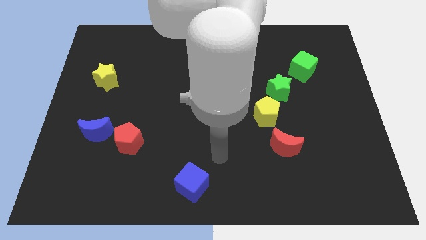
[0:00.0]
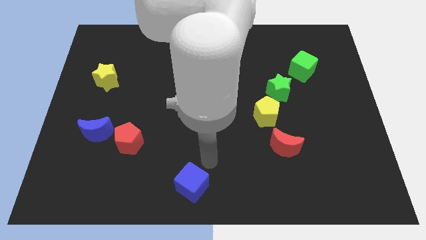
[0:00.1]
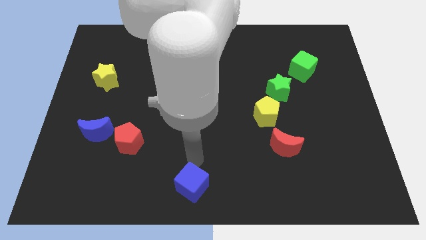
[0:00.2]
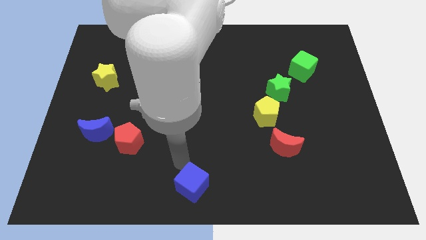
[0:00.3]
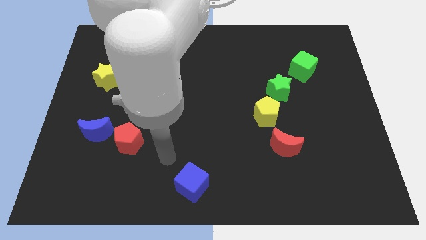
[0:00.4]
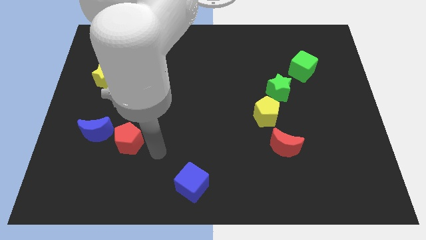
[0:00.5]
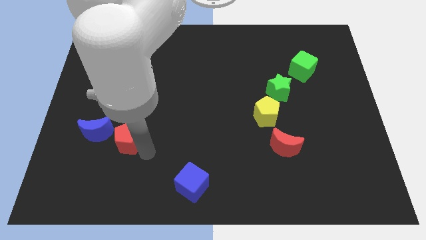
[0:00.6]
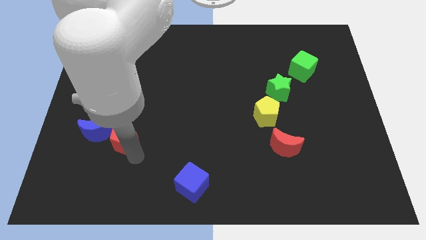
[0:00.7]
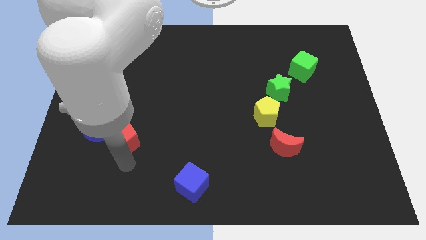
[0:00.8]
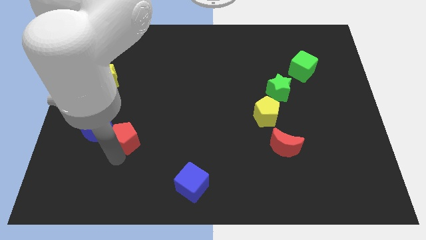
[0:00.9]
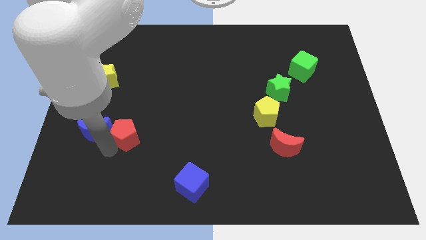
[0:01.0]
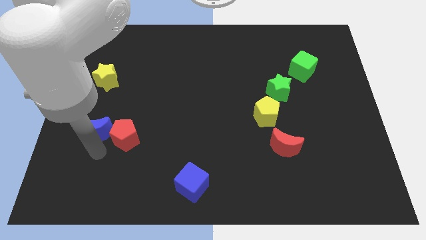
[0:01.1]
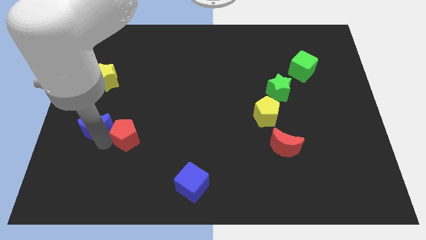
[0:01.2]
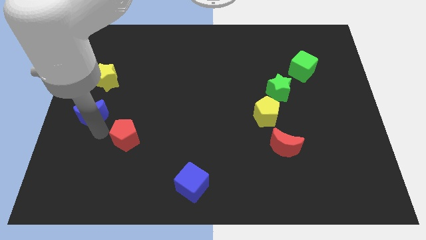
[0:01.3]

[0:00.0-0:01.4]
separate the red pentagon from the blue moon

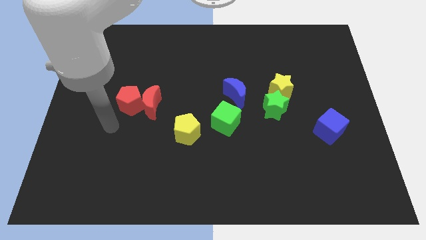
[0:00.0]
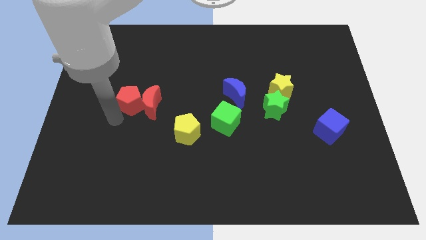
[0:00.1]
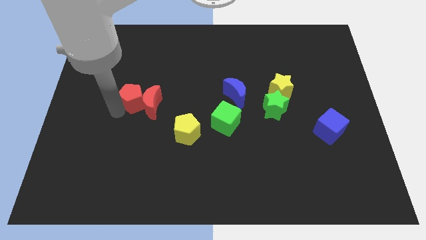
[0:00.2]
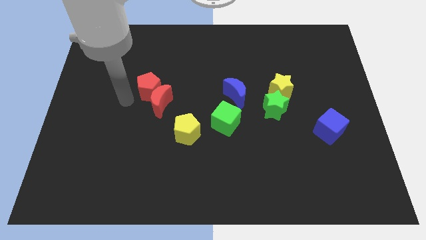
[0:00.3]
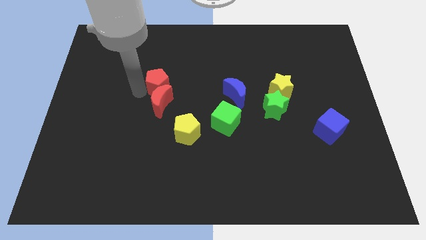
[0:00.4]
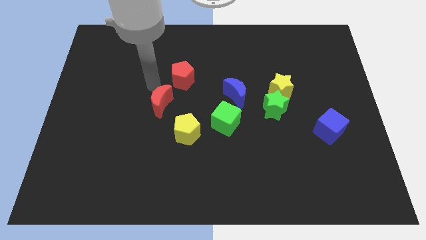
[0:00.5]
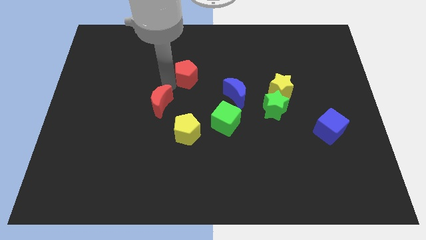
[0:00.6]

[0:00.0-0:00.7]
move the red moon away from the red pentagon

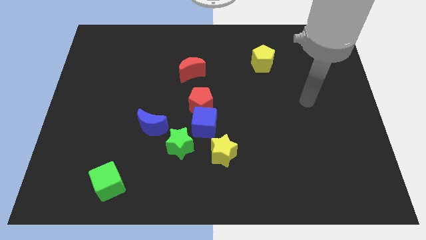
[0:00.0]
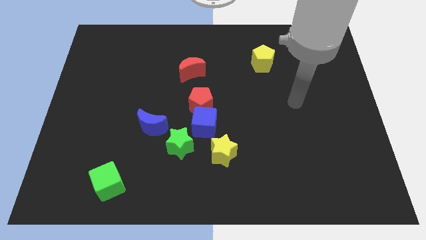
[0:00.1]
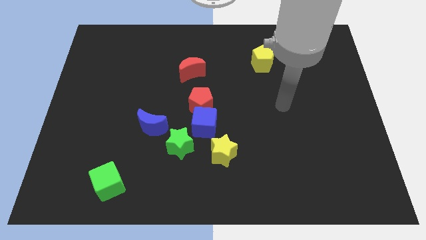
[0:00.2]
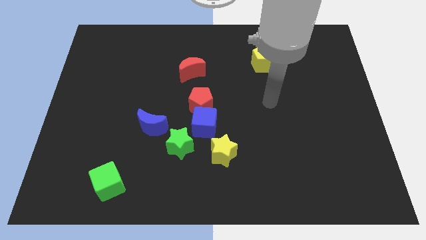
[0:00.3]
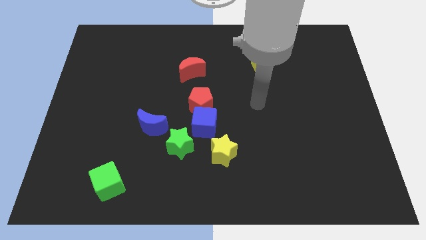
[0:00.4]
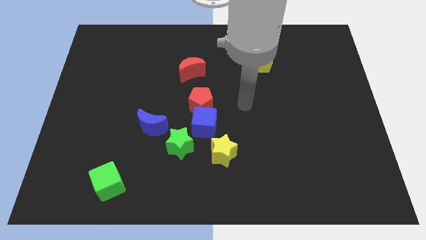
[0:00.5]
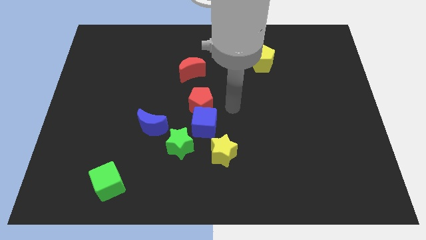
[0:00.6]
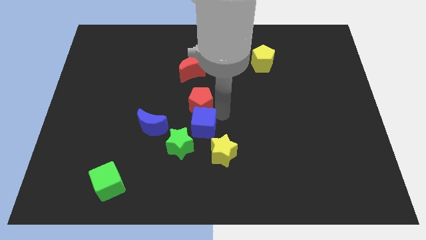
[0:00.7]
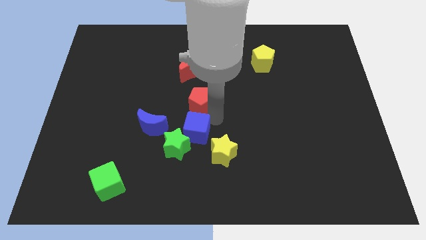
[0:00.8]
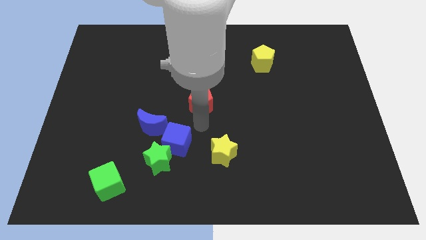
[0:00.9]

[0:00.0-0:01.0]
separate the red pentagon from the blue cube

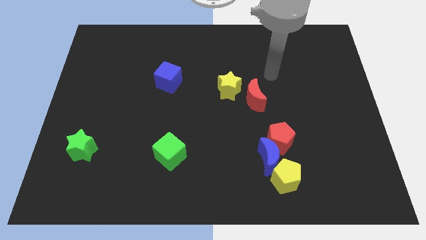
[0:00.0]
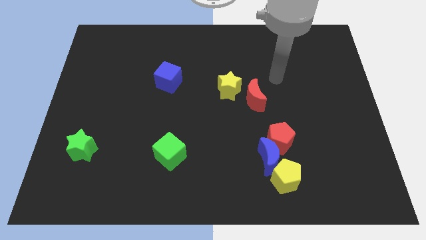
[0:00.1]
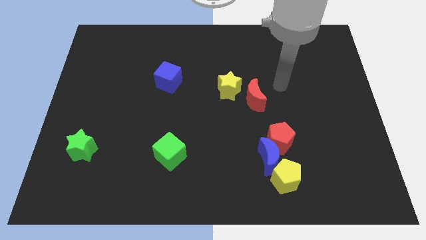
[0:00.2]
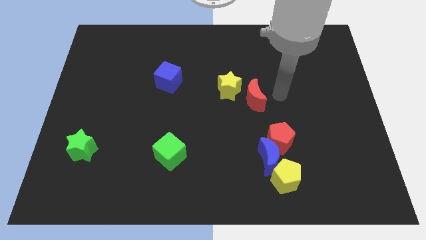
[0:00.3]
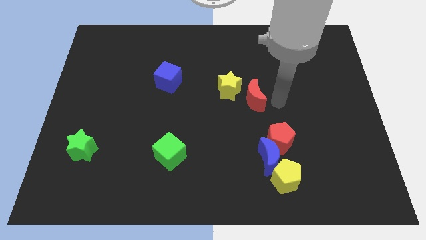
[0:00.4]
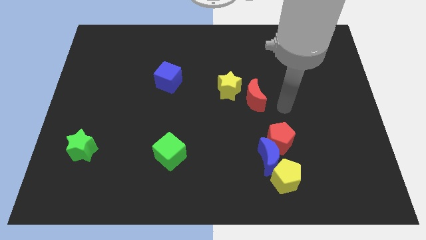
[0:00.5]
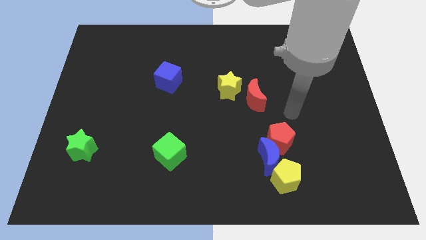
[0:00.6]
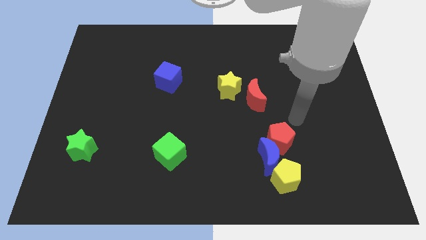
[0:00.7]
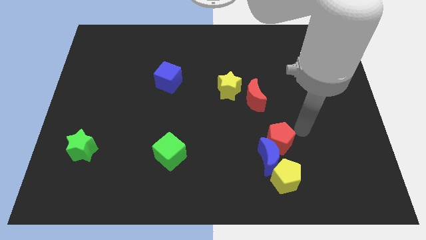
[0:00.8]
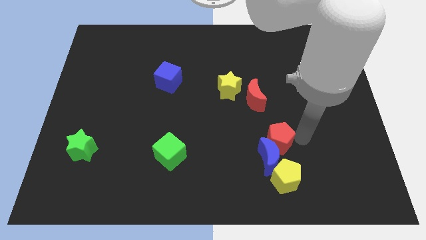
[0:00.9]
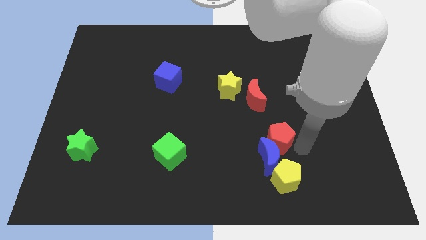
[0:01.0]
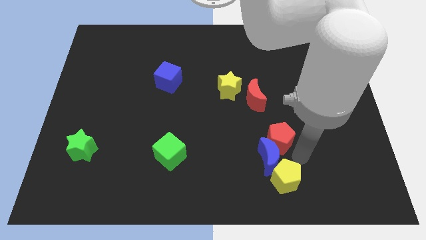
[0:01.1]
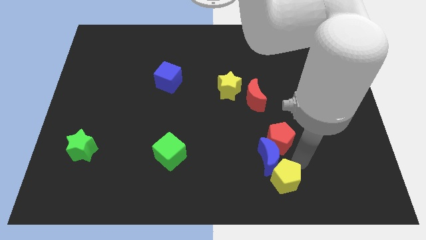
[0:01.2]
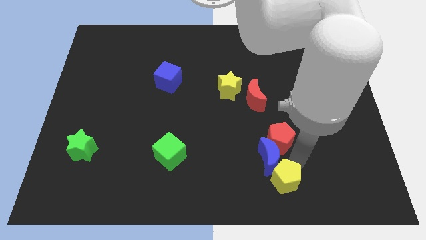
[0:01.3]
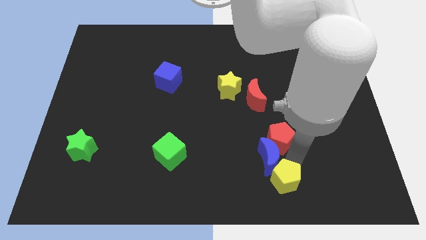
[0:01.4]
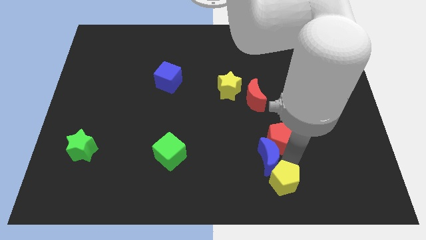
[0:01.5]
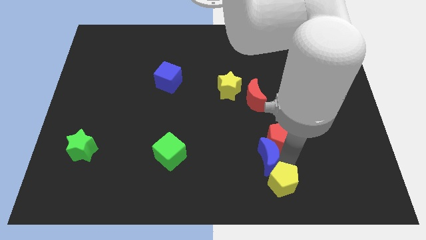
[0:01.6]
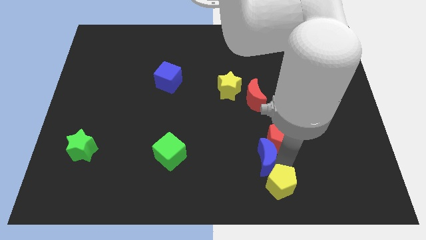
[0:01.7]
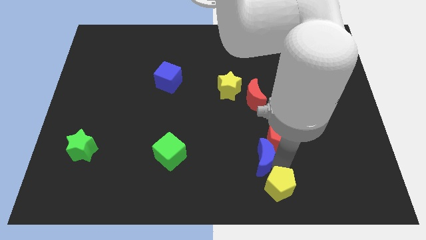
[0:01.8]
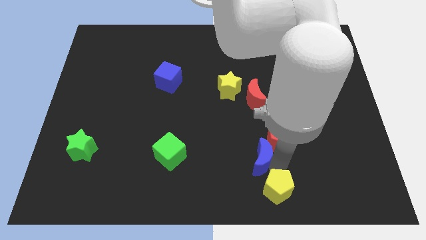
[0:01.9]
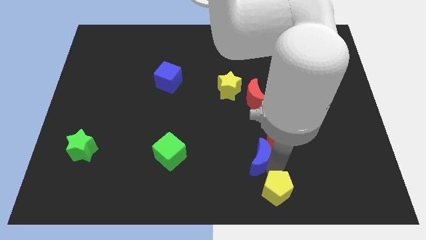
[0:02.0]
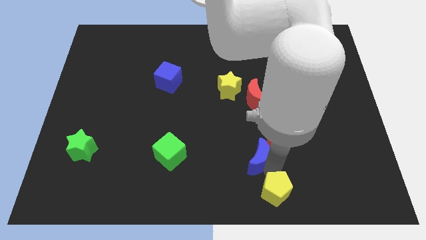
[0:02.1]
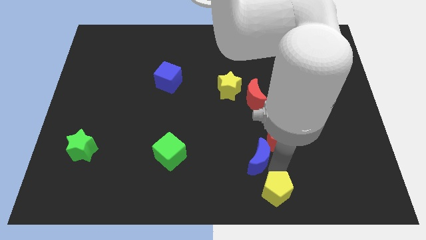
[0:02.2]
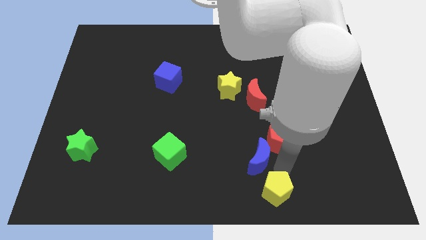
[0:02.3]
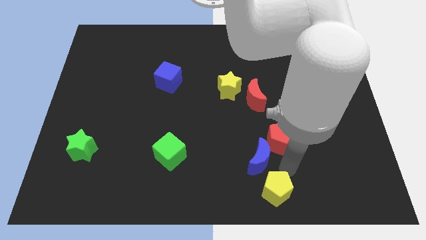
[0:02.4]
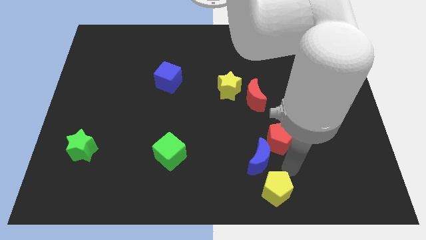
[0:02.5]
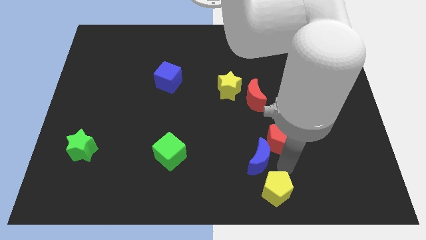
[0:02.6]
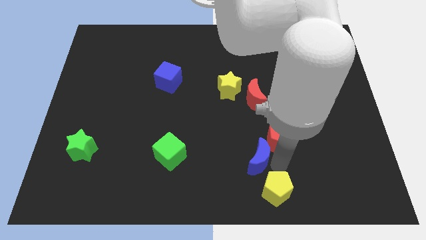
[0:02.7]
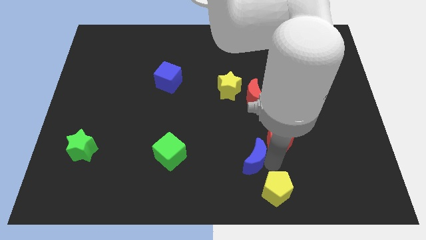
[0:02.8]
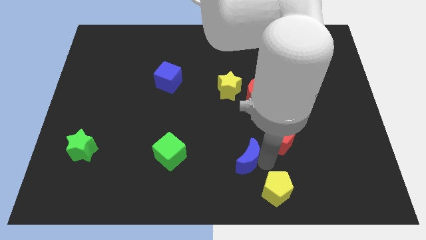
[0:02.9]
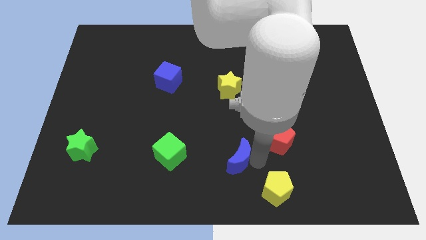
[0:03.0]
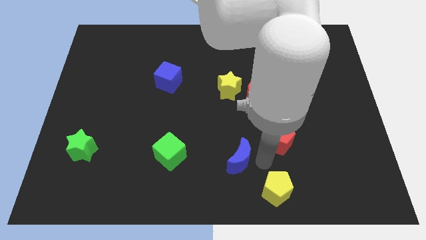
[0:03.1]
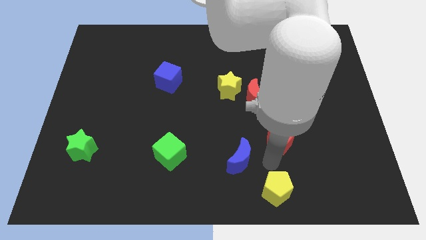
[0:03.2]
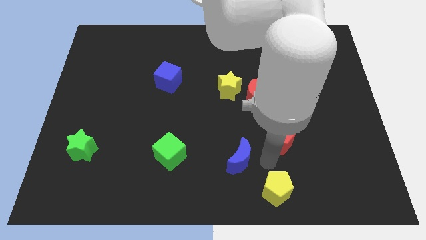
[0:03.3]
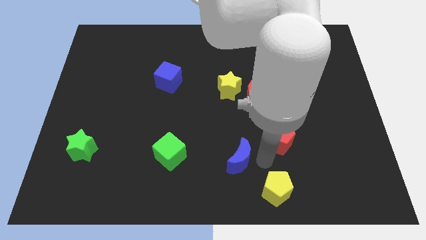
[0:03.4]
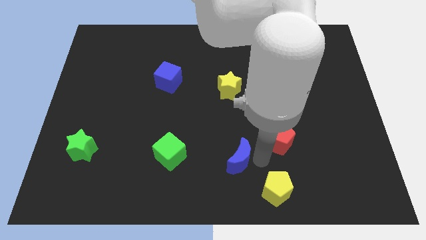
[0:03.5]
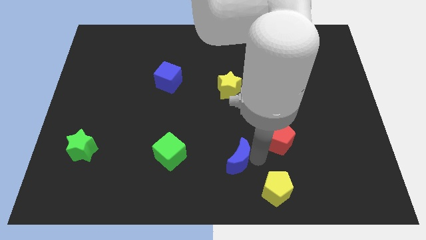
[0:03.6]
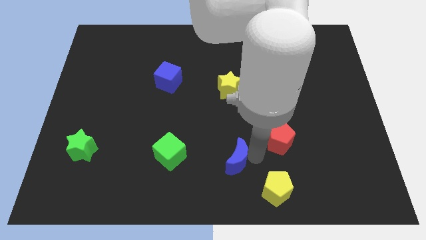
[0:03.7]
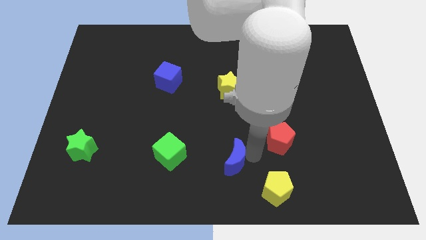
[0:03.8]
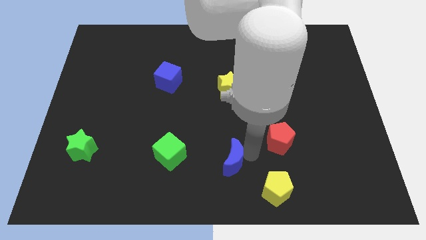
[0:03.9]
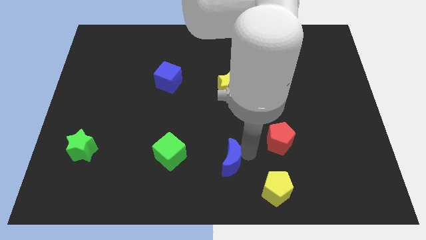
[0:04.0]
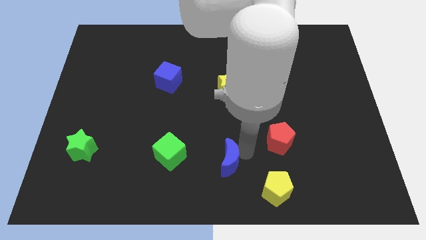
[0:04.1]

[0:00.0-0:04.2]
separate the blue moon from the red pentagon and yellow pentagon

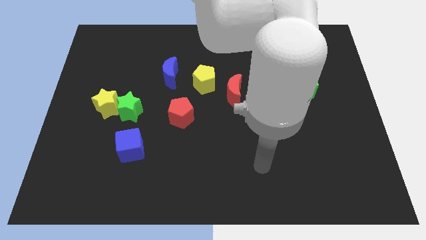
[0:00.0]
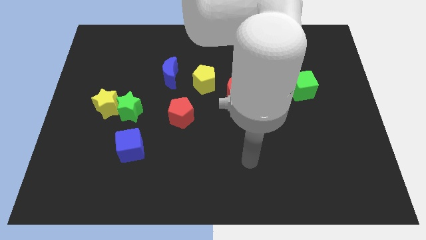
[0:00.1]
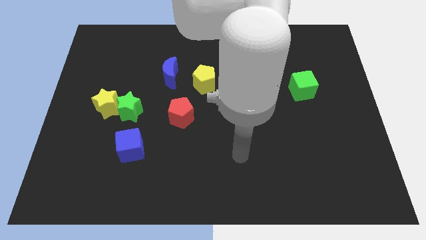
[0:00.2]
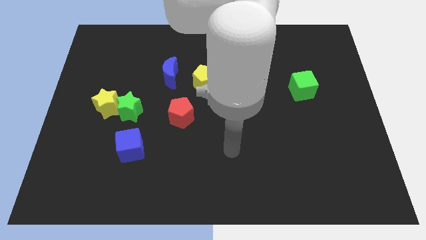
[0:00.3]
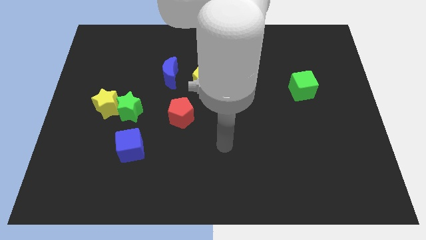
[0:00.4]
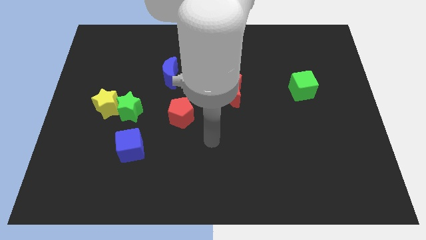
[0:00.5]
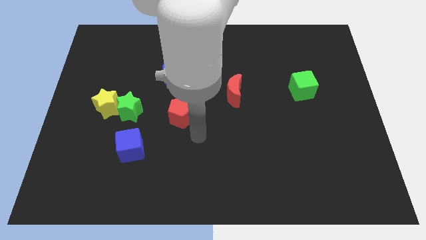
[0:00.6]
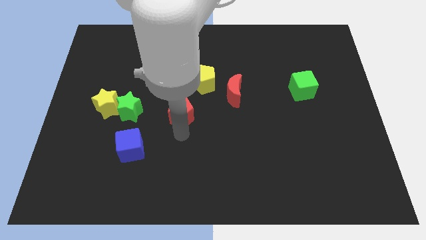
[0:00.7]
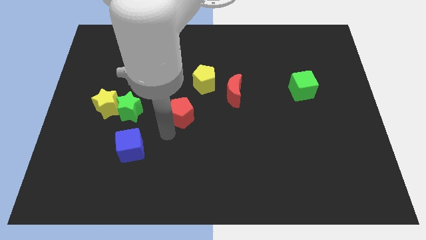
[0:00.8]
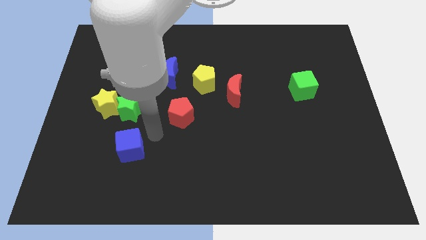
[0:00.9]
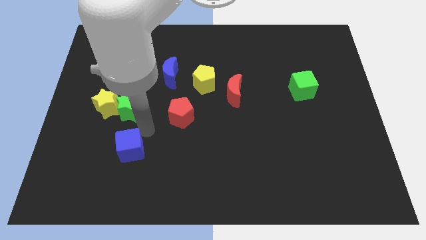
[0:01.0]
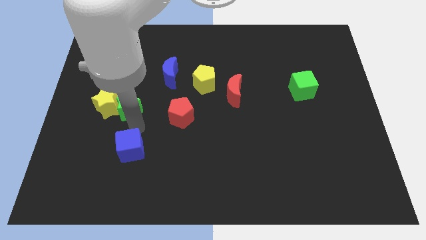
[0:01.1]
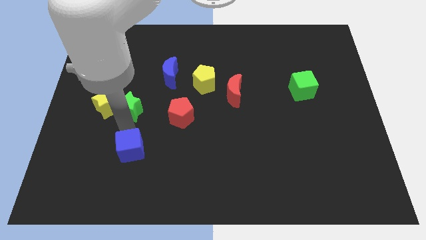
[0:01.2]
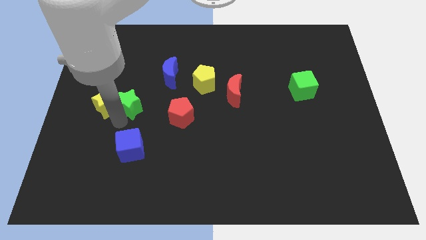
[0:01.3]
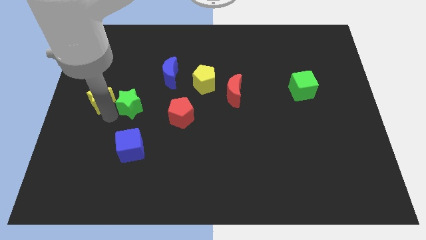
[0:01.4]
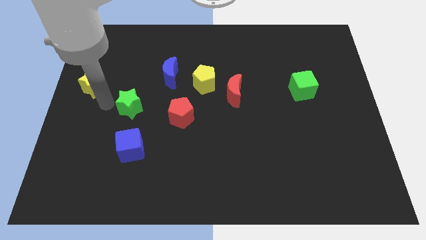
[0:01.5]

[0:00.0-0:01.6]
separate the green star from the yellow star

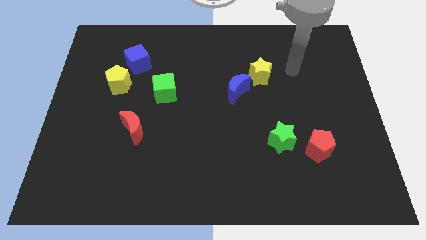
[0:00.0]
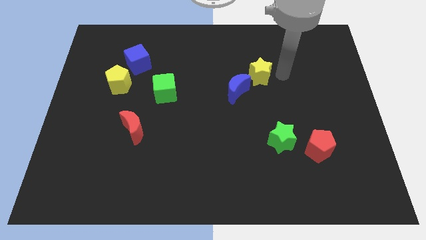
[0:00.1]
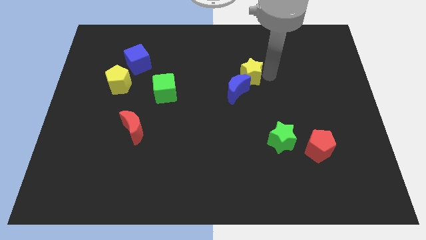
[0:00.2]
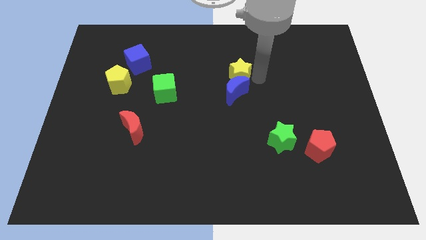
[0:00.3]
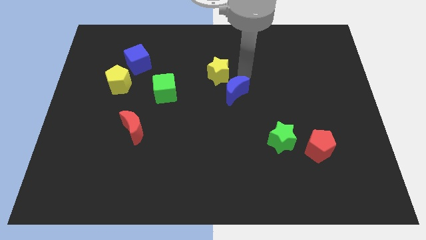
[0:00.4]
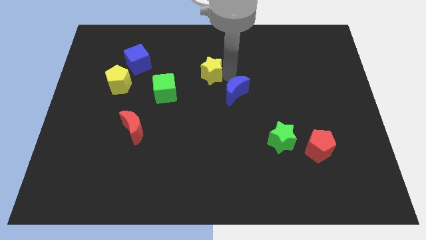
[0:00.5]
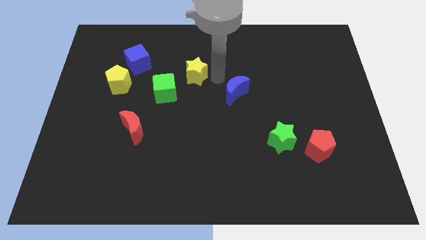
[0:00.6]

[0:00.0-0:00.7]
pull the blue moon apart from the yellow star
